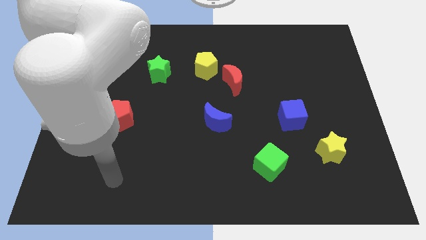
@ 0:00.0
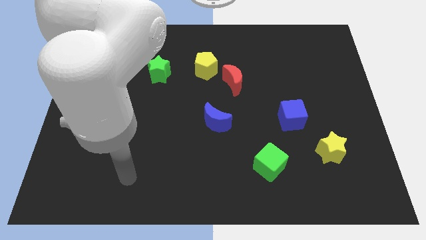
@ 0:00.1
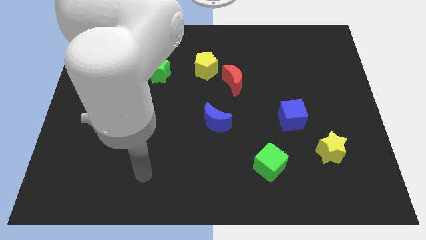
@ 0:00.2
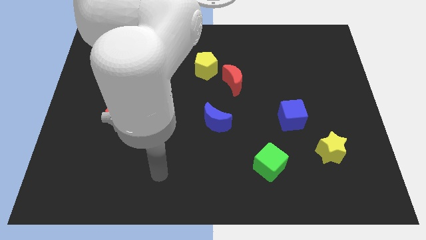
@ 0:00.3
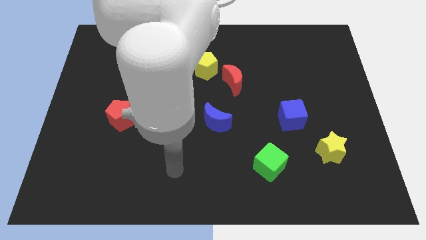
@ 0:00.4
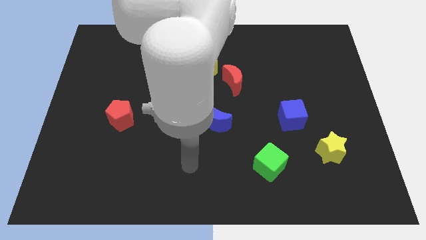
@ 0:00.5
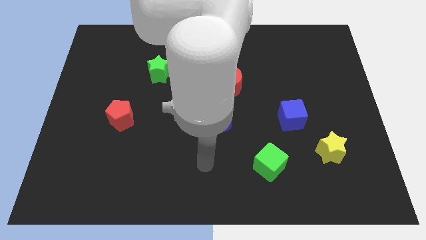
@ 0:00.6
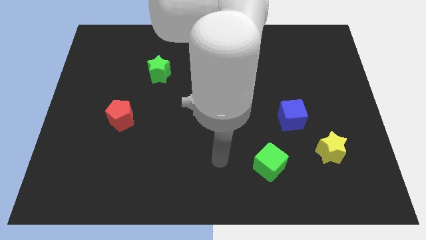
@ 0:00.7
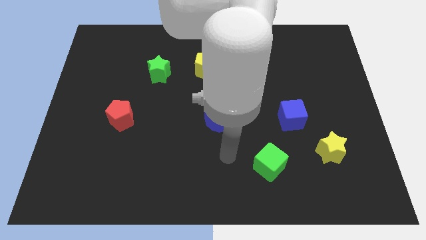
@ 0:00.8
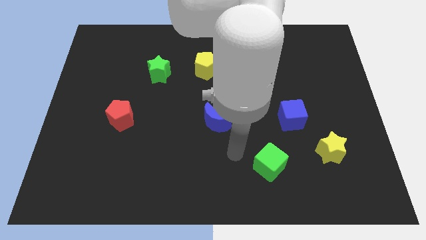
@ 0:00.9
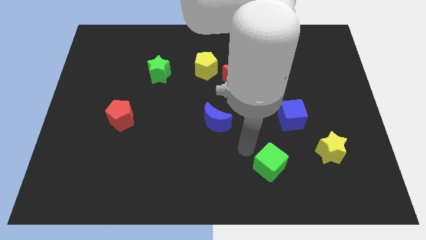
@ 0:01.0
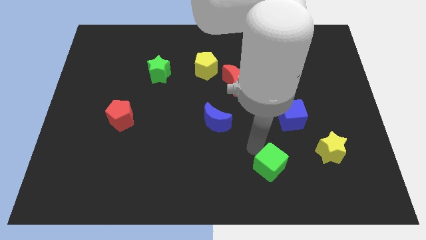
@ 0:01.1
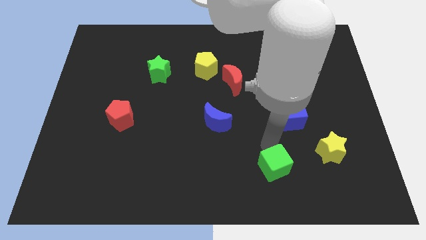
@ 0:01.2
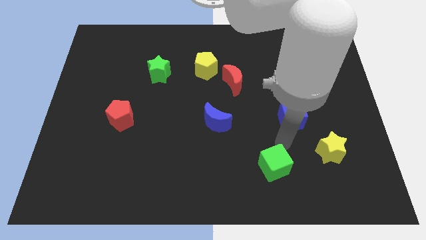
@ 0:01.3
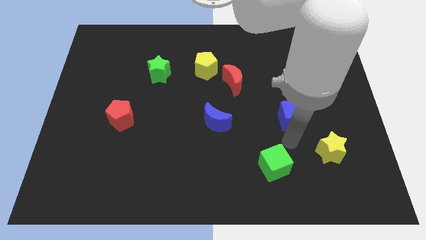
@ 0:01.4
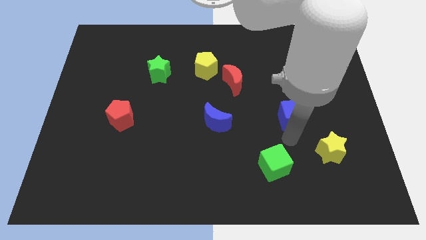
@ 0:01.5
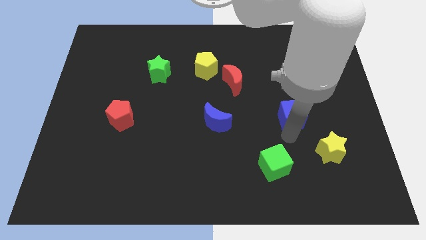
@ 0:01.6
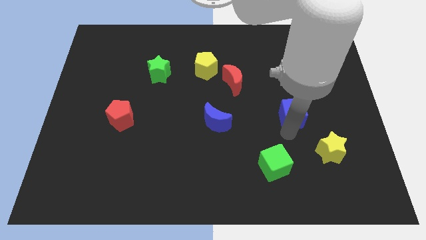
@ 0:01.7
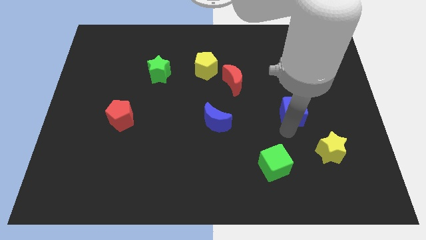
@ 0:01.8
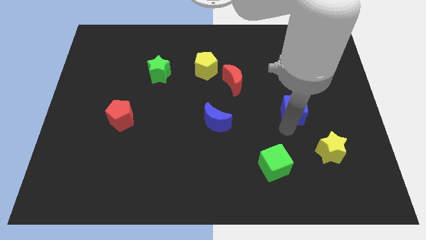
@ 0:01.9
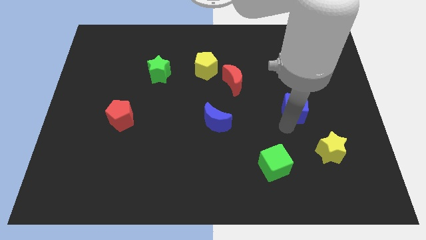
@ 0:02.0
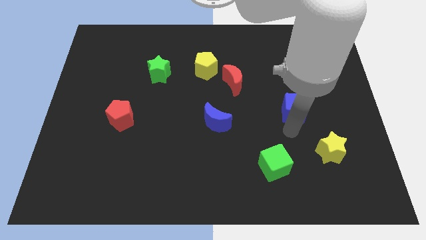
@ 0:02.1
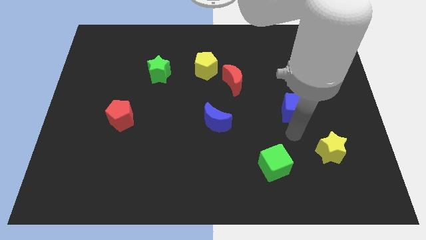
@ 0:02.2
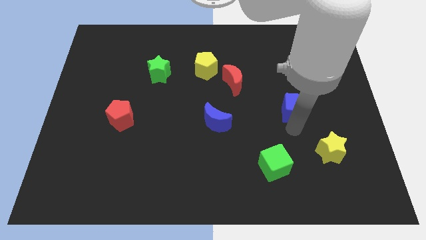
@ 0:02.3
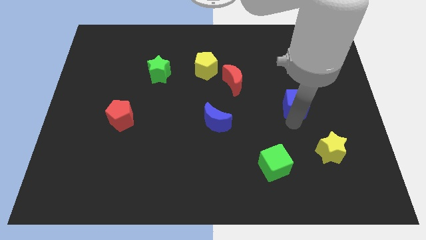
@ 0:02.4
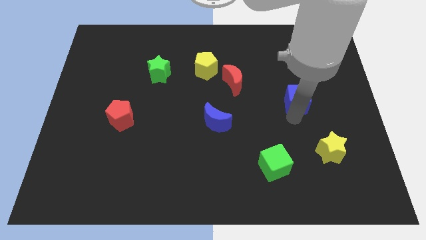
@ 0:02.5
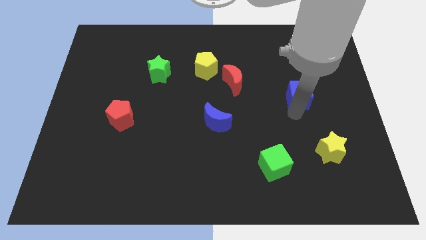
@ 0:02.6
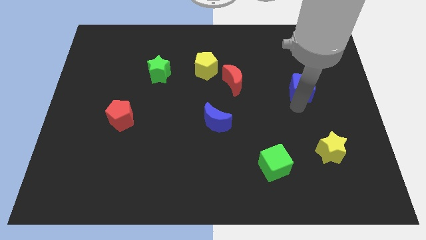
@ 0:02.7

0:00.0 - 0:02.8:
move the blue cube a little up

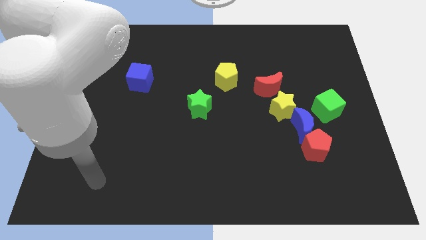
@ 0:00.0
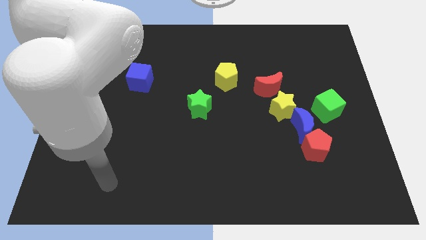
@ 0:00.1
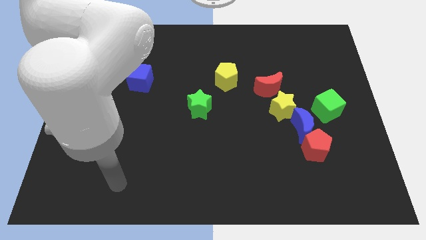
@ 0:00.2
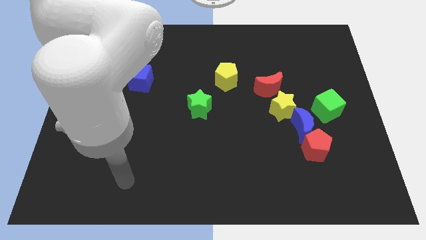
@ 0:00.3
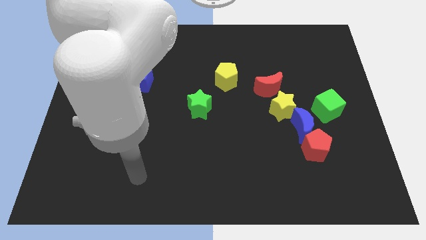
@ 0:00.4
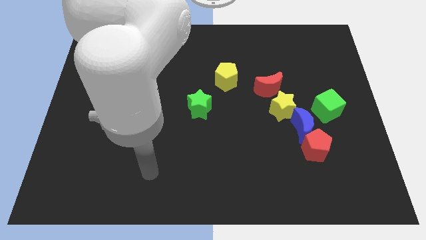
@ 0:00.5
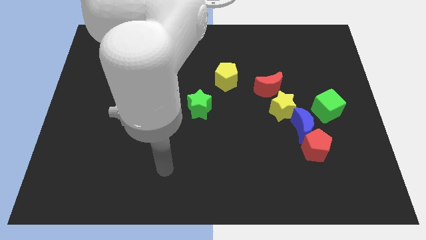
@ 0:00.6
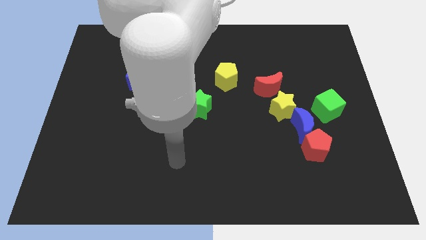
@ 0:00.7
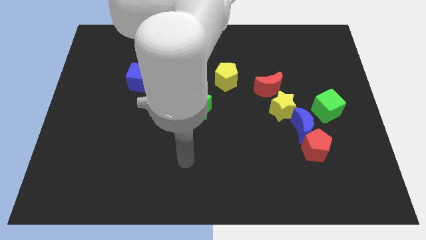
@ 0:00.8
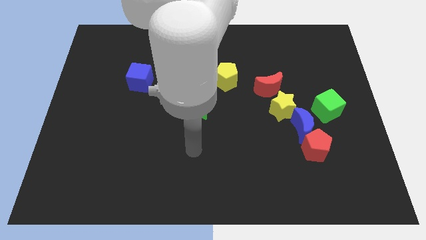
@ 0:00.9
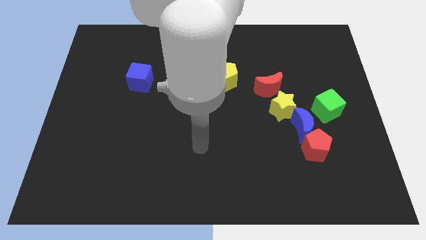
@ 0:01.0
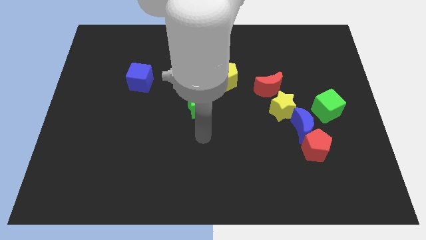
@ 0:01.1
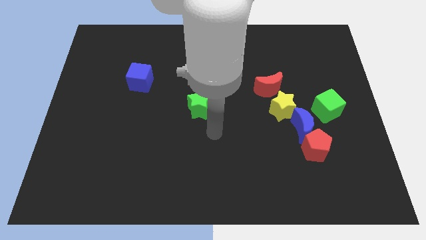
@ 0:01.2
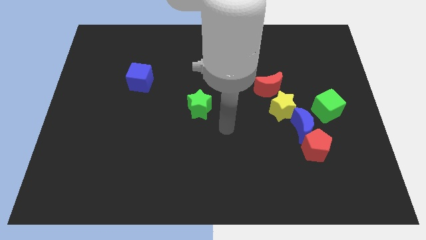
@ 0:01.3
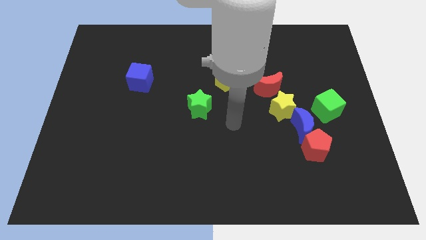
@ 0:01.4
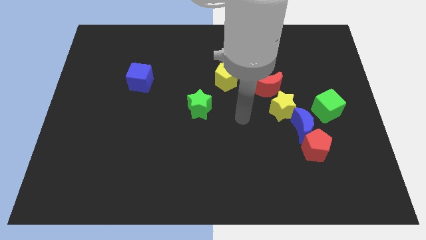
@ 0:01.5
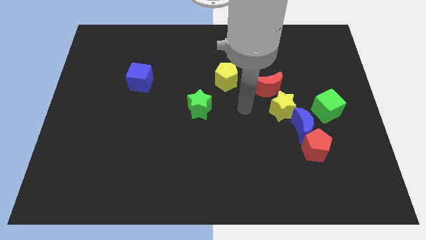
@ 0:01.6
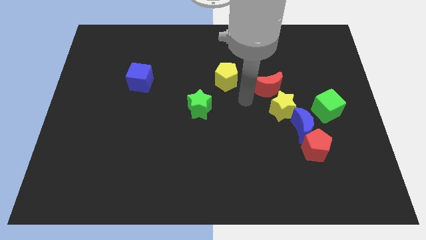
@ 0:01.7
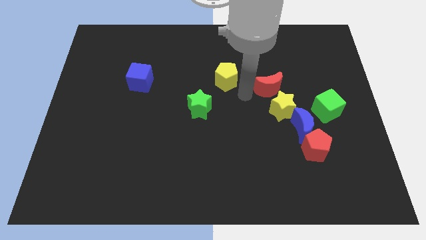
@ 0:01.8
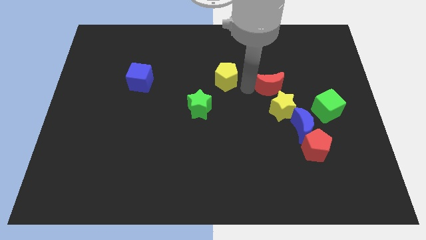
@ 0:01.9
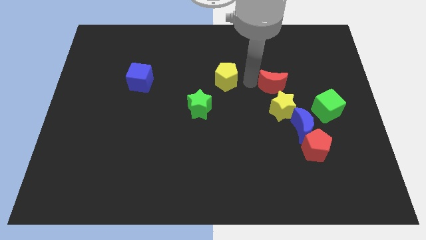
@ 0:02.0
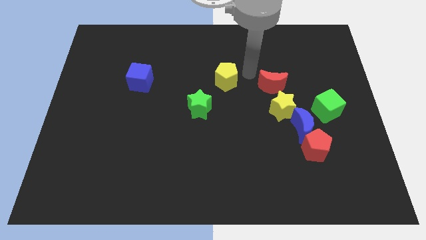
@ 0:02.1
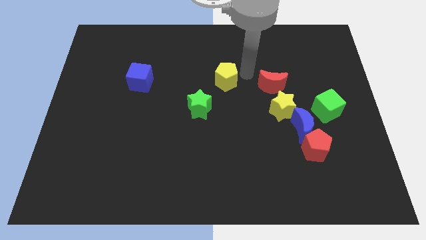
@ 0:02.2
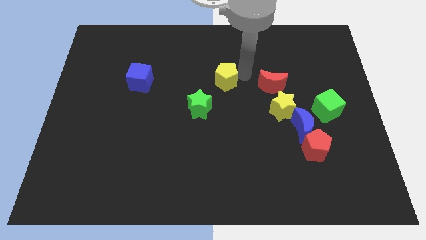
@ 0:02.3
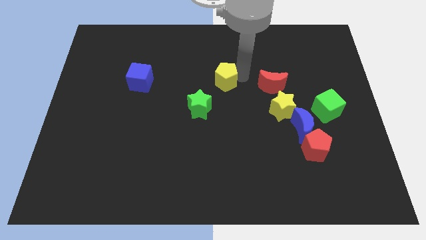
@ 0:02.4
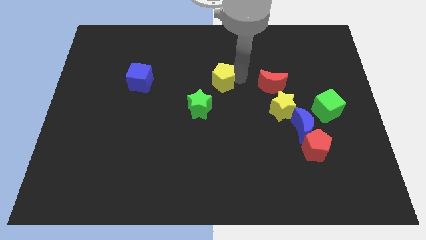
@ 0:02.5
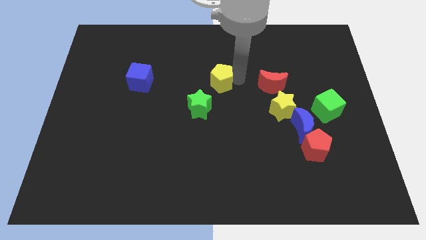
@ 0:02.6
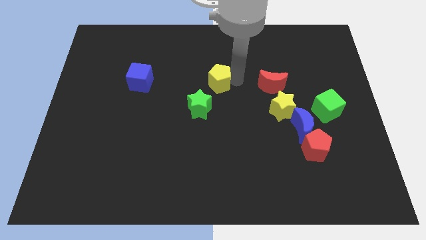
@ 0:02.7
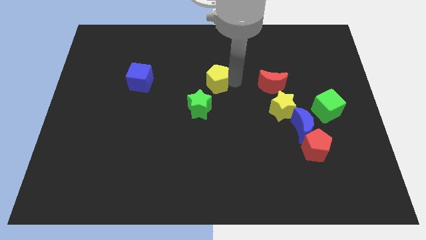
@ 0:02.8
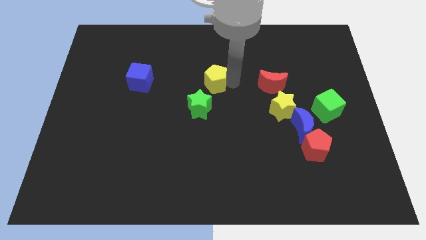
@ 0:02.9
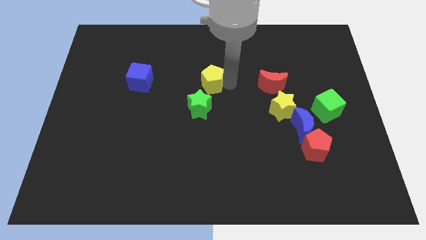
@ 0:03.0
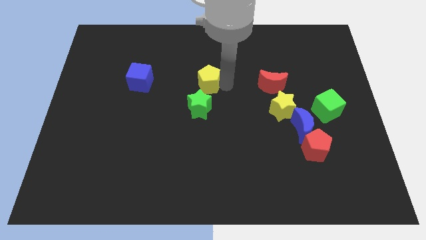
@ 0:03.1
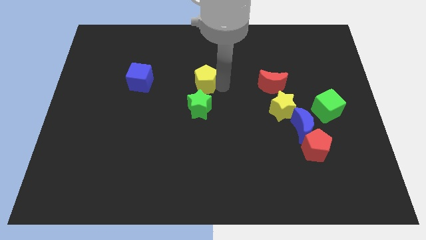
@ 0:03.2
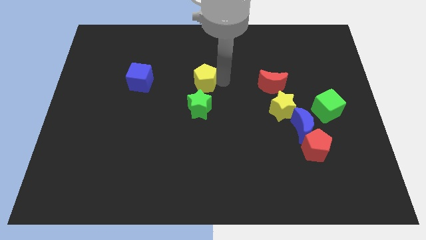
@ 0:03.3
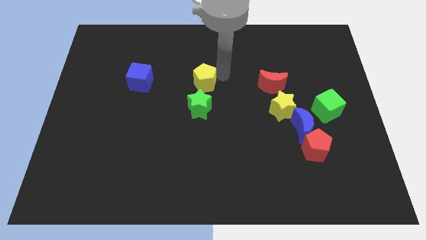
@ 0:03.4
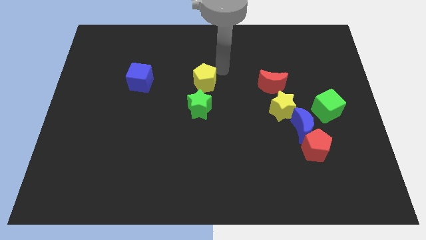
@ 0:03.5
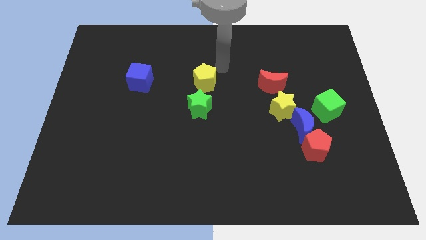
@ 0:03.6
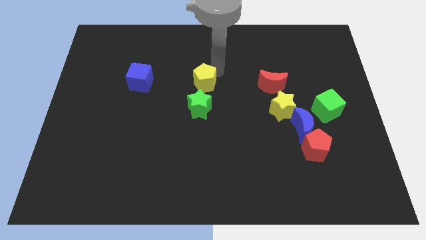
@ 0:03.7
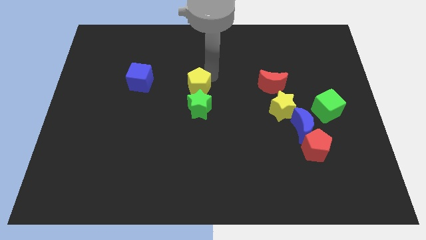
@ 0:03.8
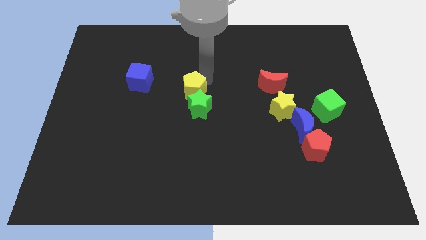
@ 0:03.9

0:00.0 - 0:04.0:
slightly move the yellow pentagon diagonally down and left

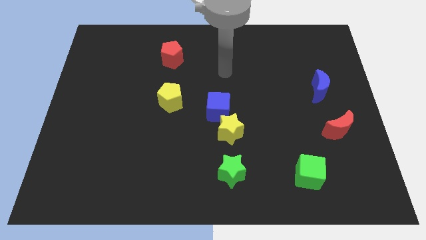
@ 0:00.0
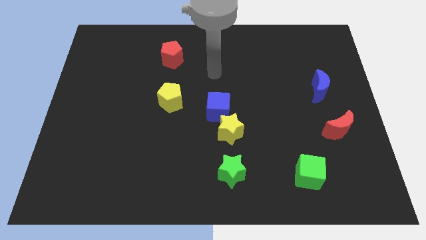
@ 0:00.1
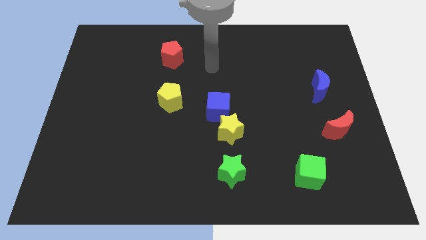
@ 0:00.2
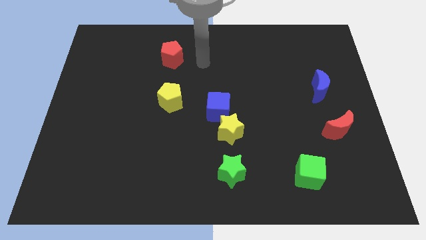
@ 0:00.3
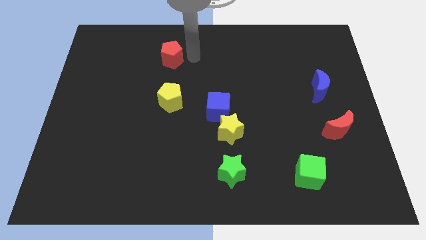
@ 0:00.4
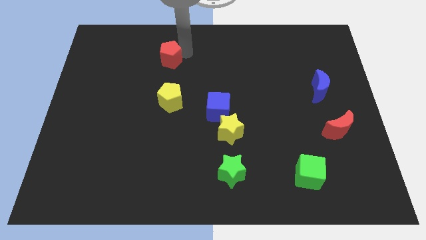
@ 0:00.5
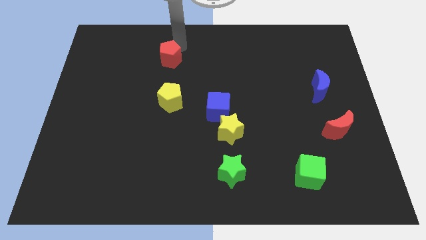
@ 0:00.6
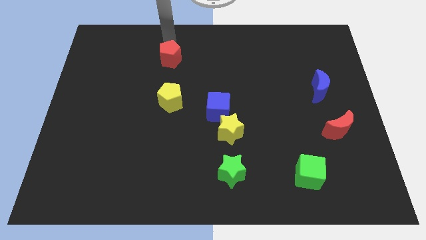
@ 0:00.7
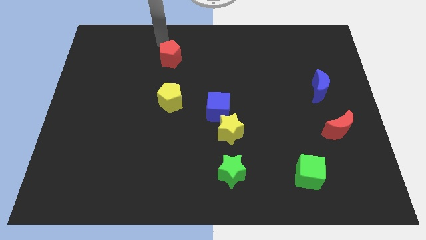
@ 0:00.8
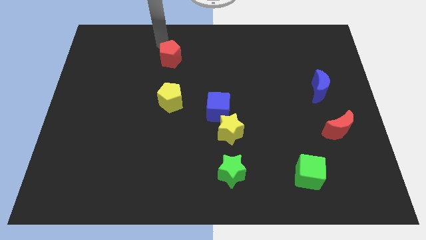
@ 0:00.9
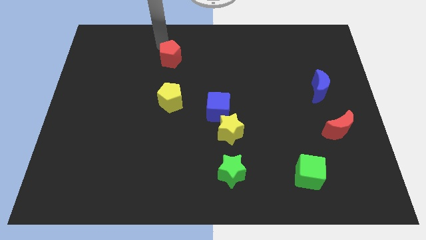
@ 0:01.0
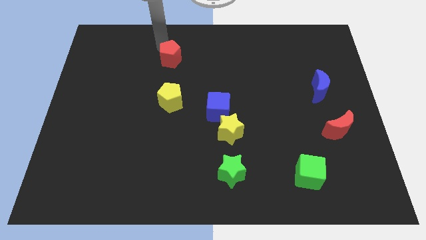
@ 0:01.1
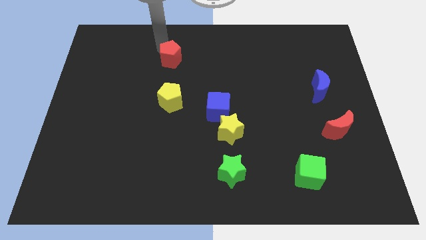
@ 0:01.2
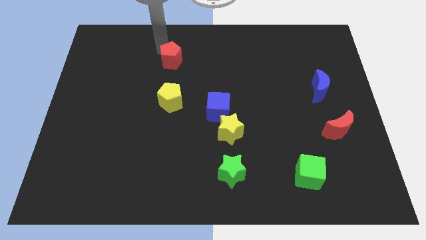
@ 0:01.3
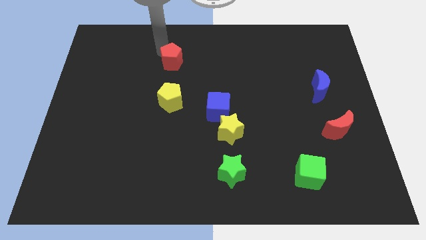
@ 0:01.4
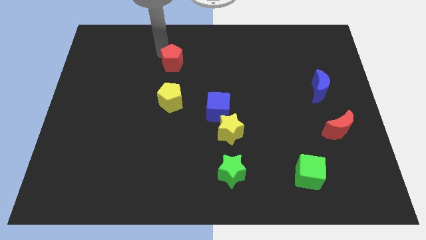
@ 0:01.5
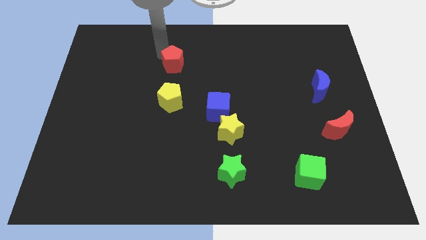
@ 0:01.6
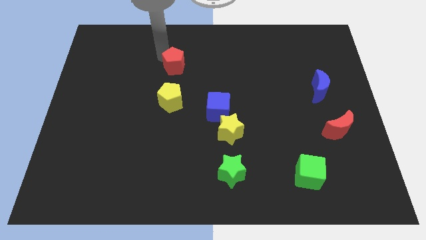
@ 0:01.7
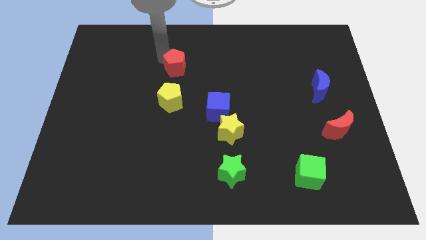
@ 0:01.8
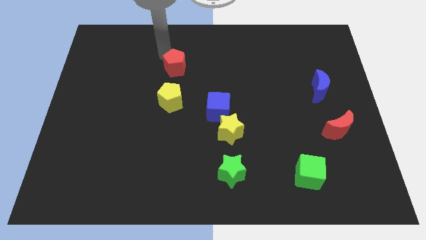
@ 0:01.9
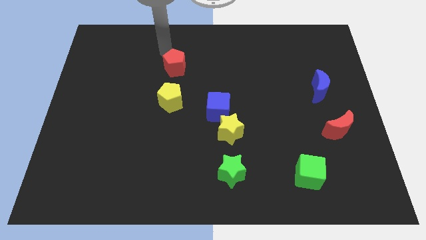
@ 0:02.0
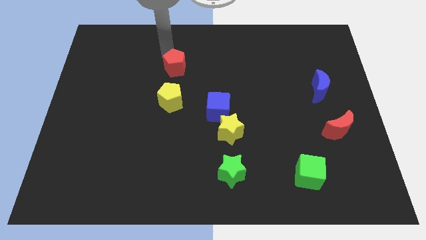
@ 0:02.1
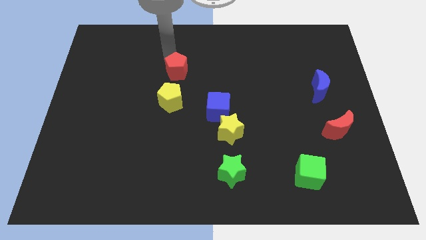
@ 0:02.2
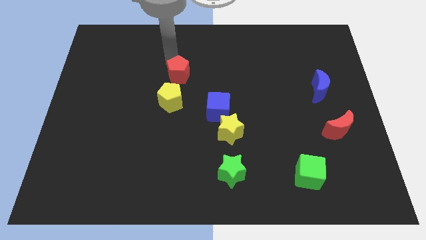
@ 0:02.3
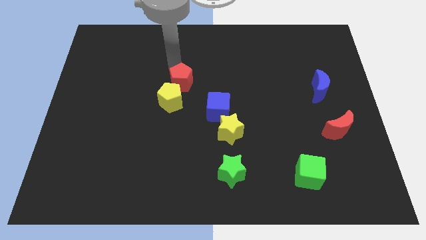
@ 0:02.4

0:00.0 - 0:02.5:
slightly push the red pentagon downwards
